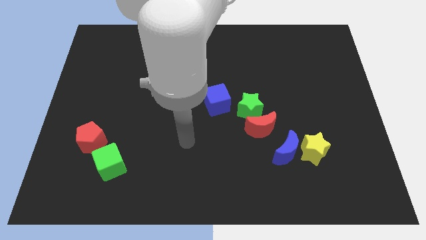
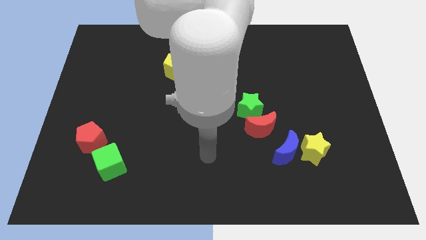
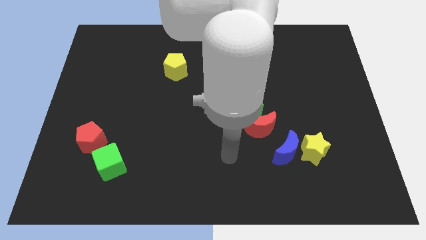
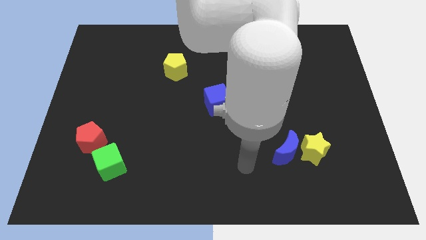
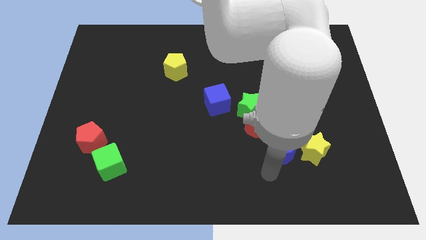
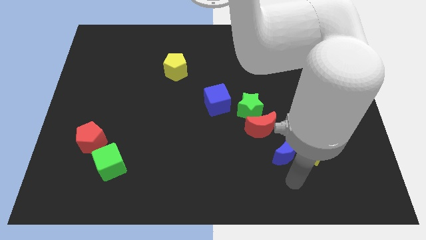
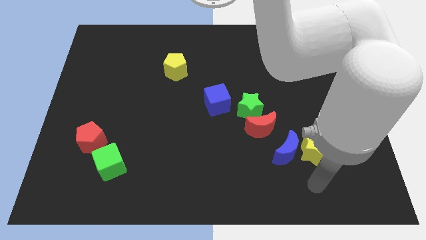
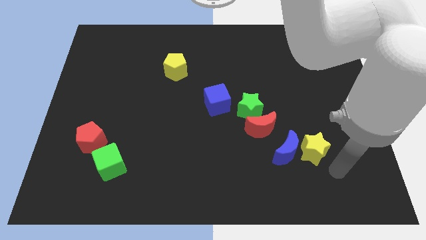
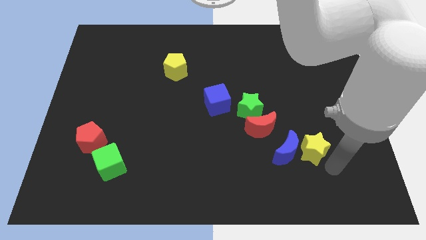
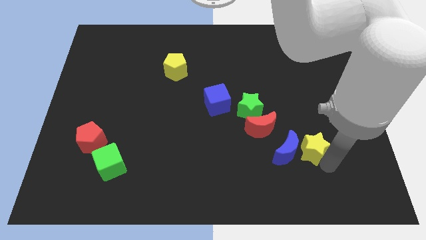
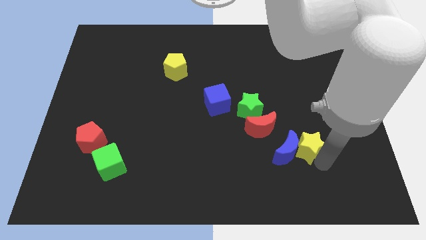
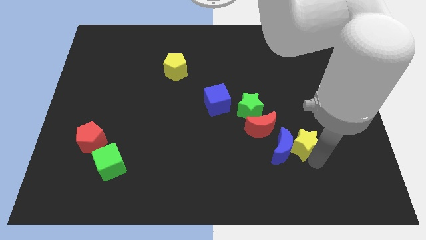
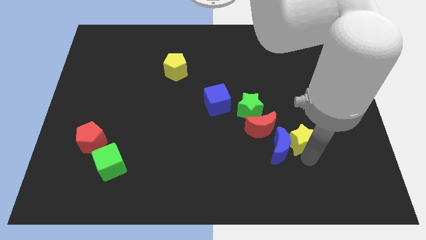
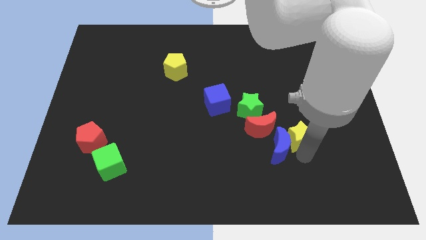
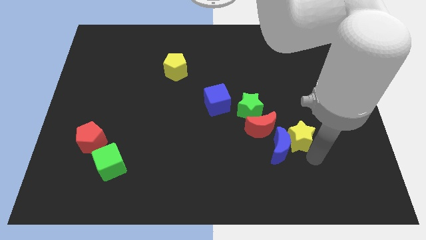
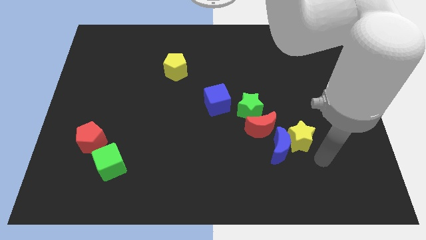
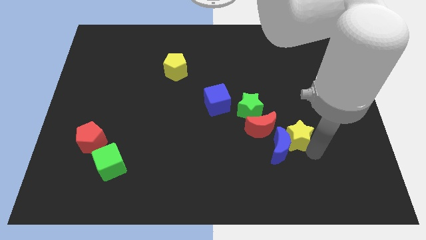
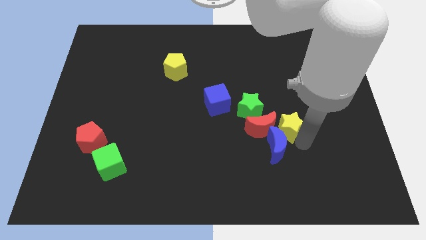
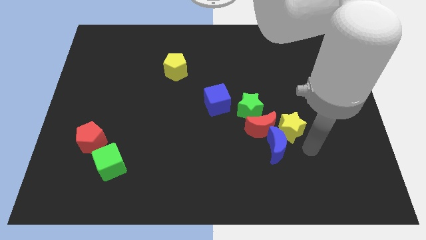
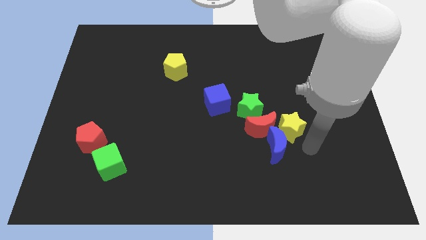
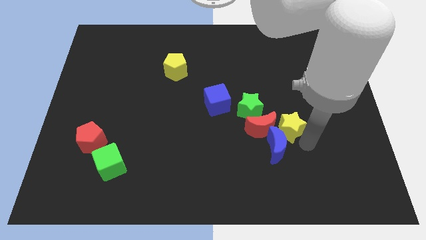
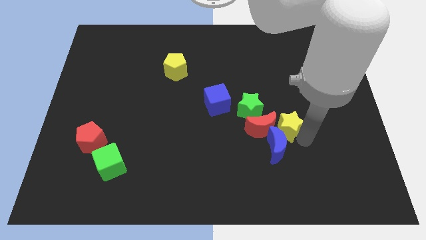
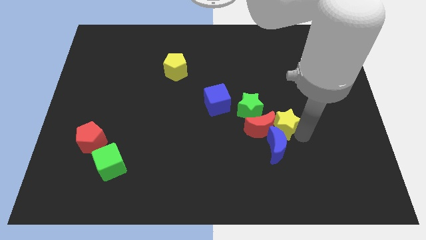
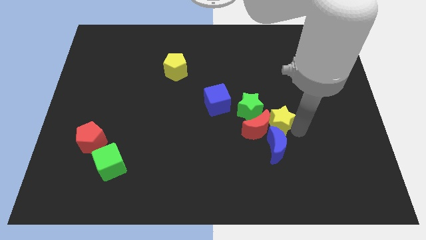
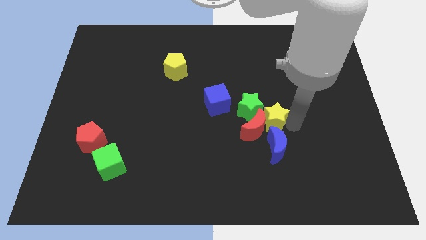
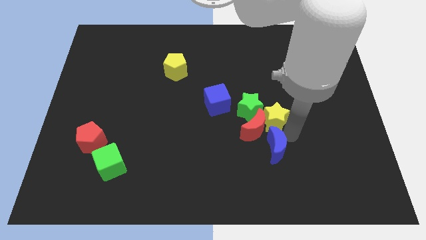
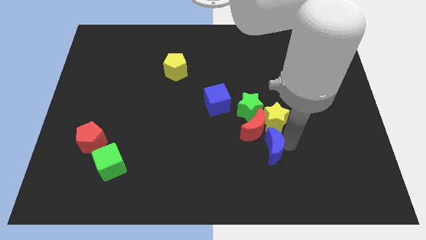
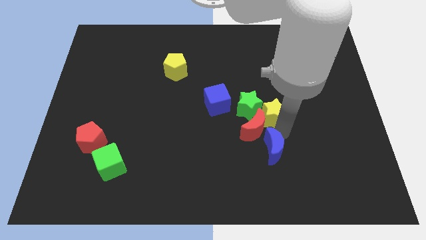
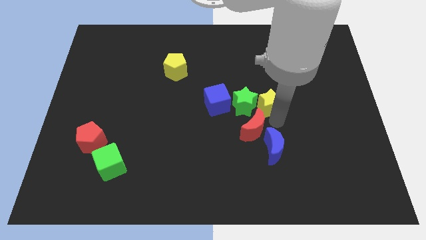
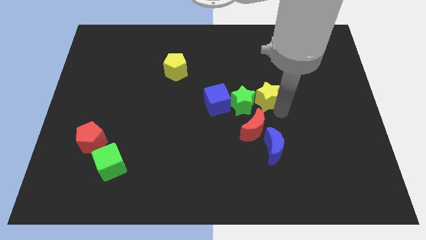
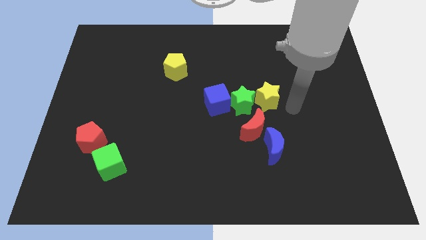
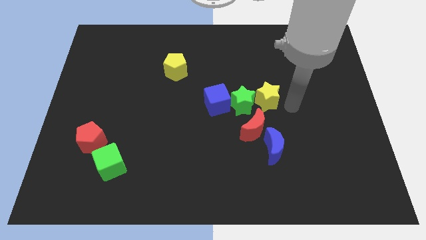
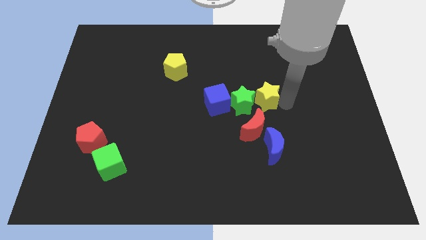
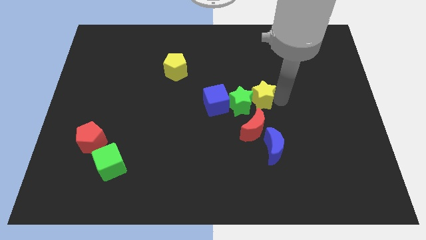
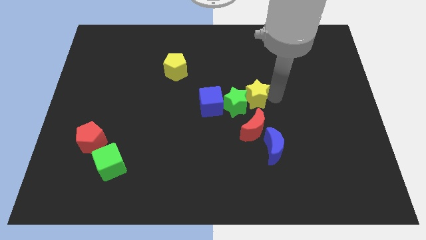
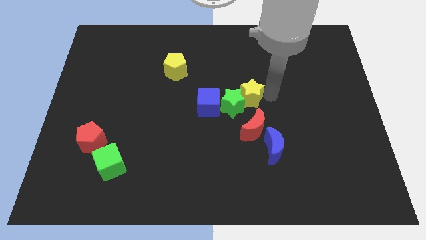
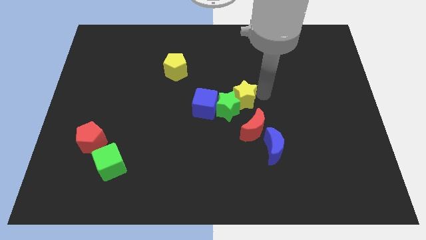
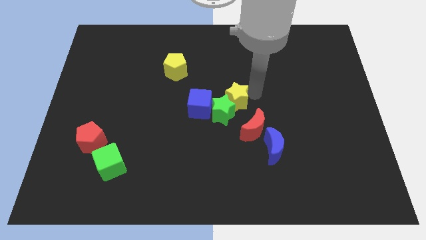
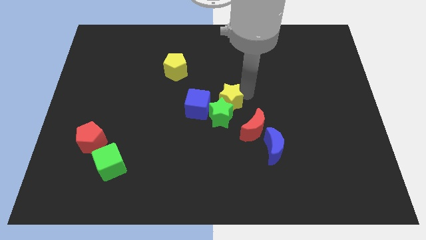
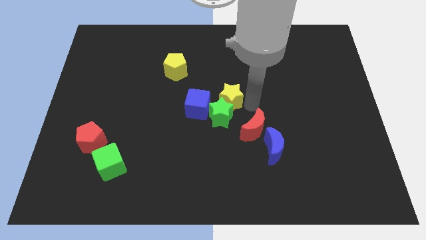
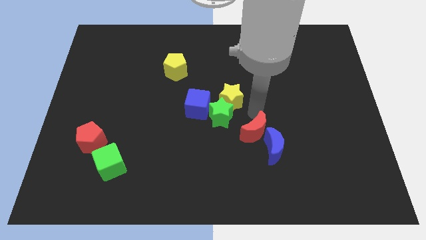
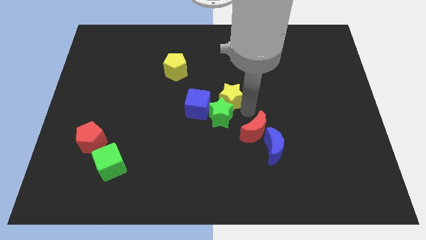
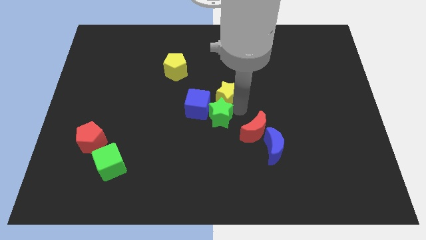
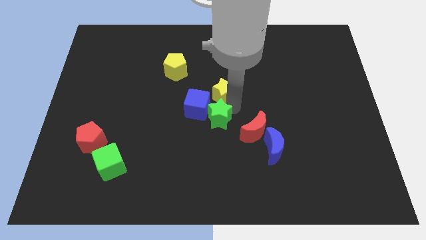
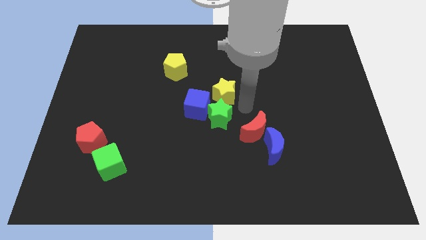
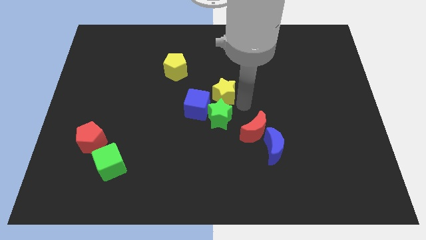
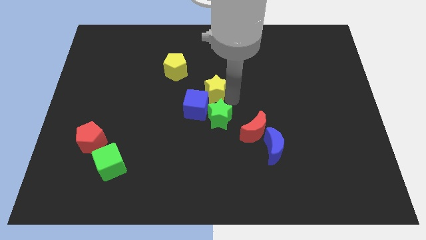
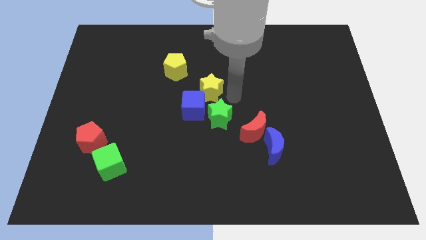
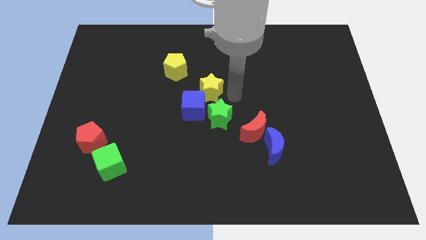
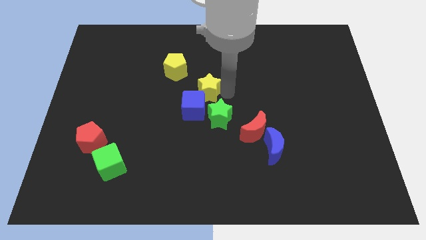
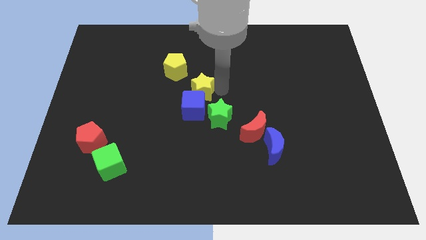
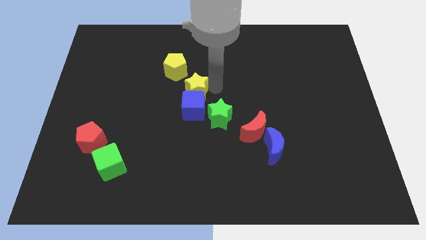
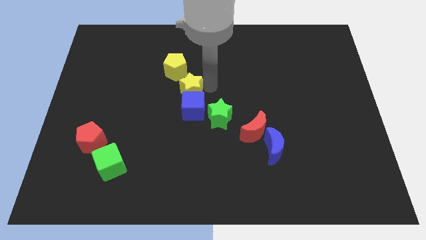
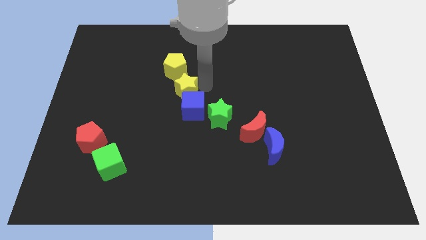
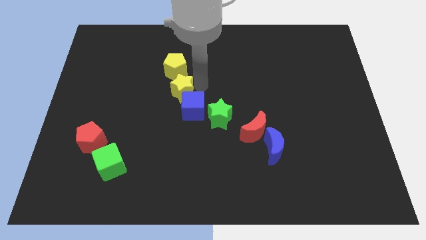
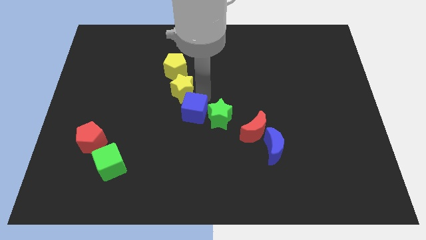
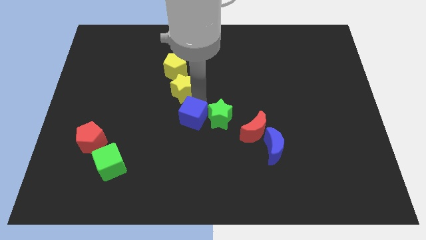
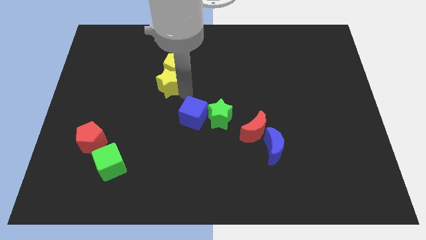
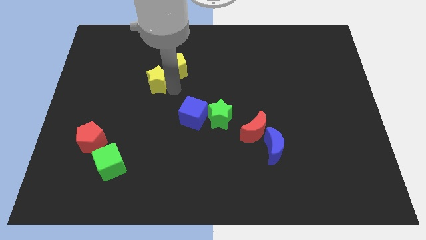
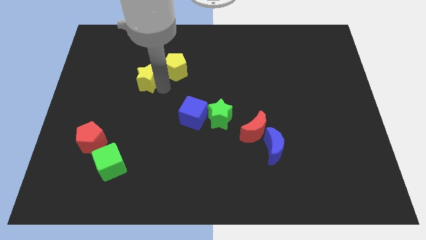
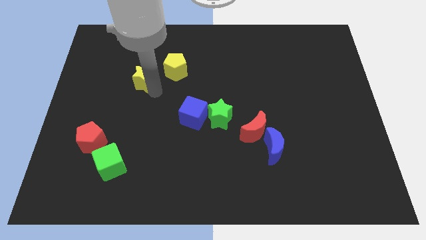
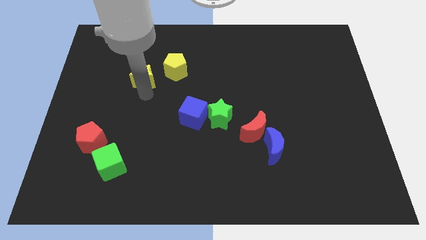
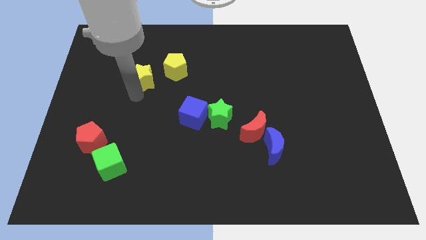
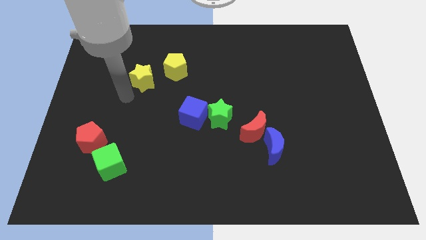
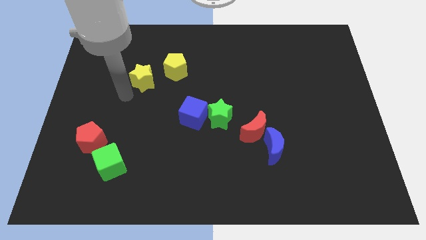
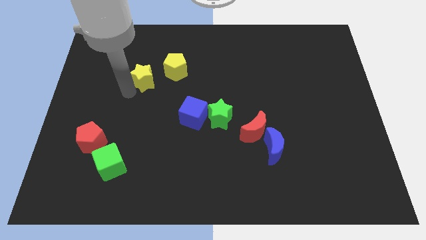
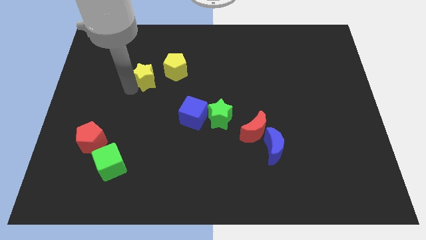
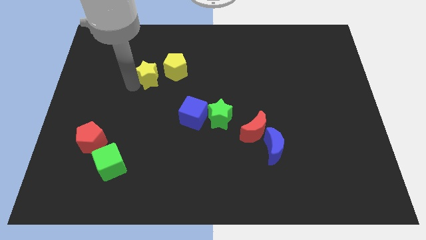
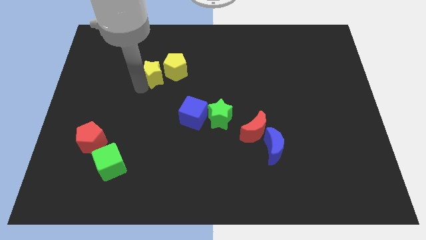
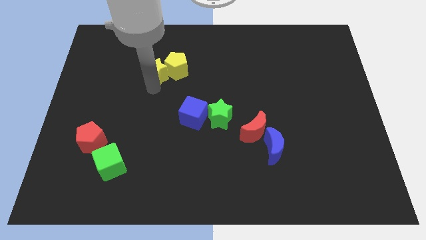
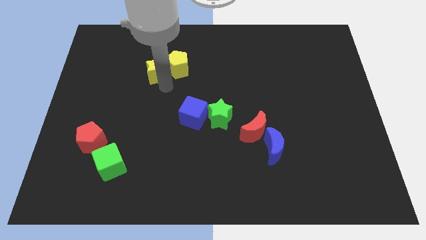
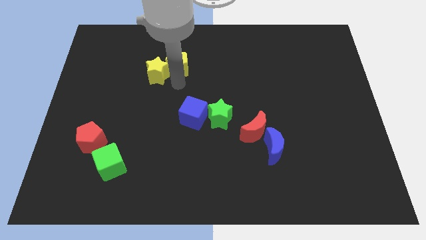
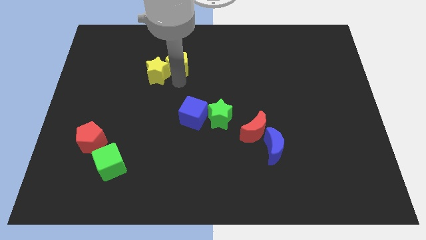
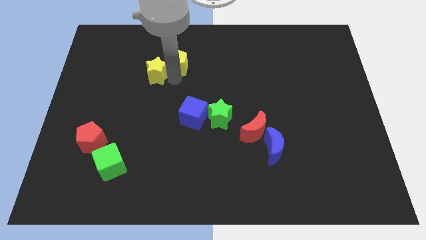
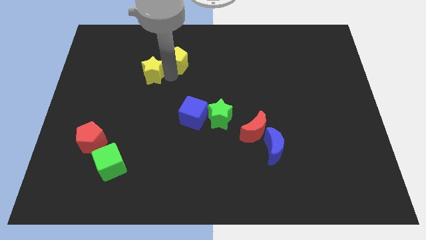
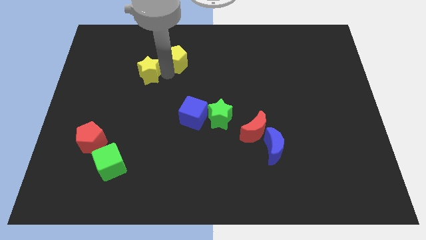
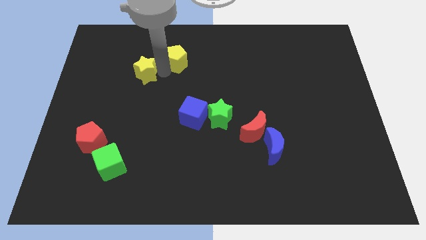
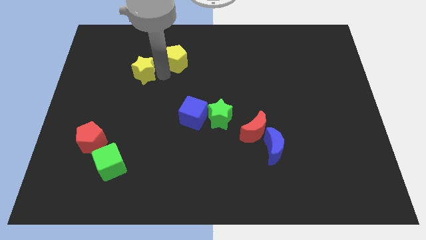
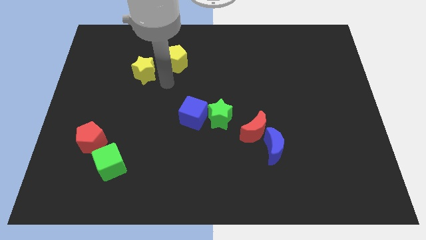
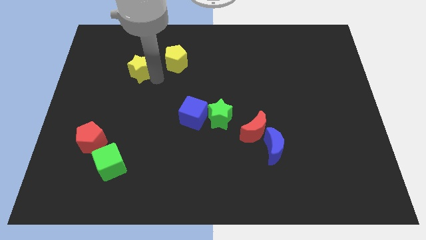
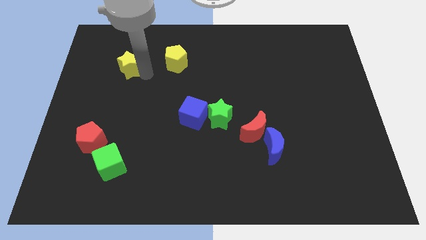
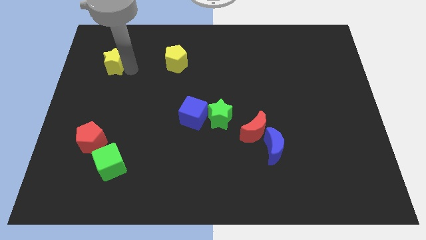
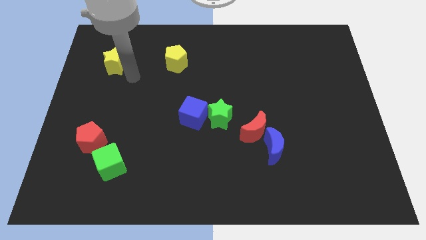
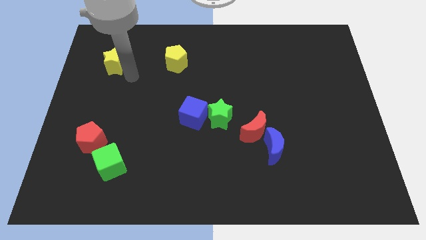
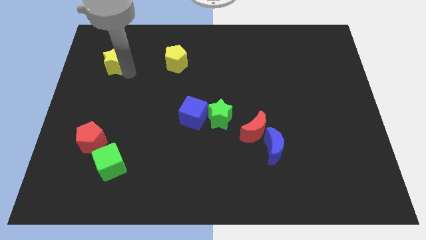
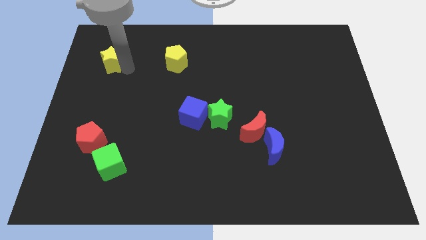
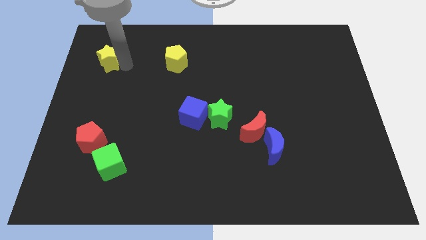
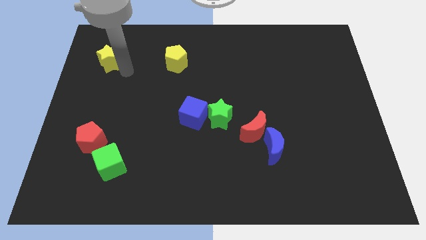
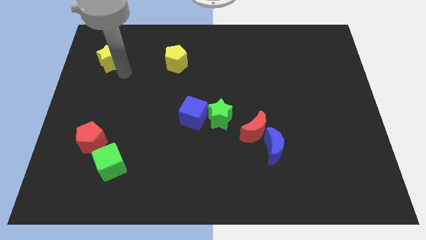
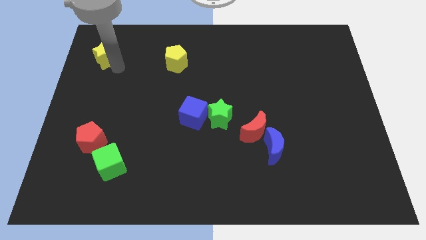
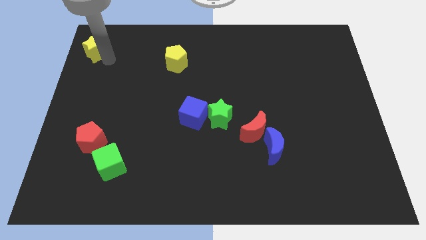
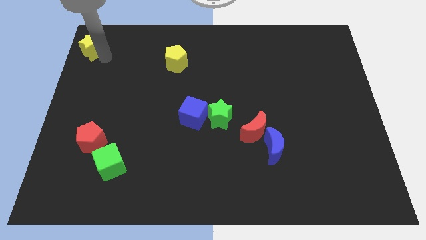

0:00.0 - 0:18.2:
put the yellow star to the top left
